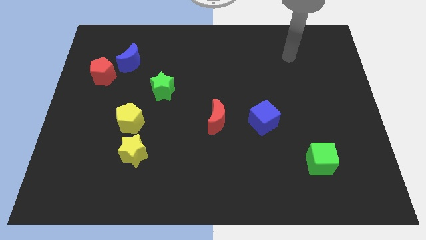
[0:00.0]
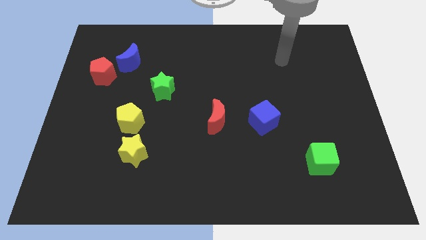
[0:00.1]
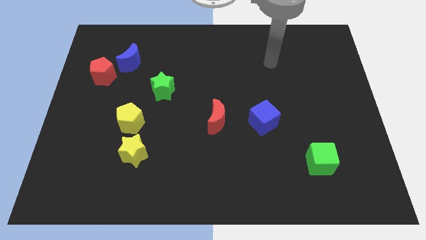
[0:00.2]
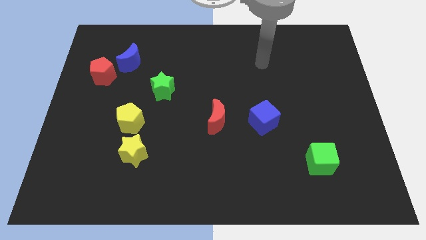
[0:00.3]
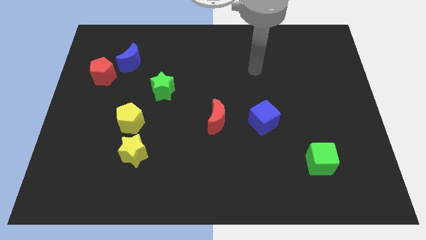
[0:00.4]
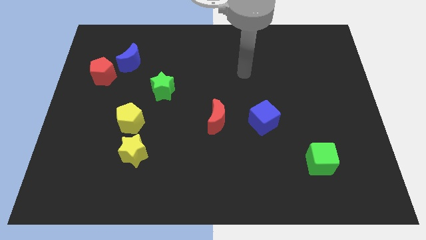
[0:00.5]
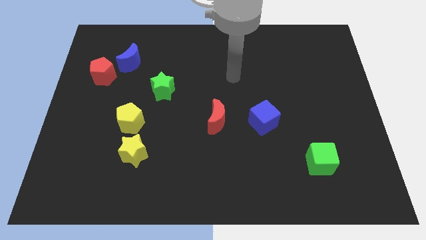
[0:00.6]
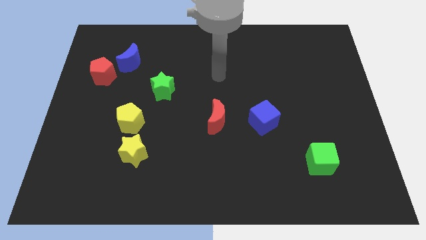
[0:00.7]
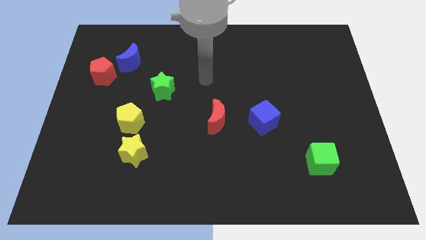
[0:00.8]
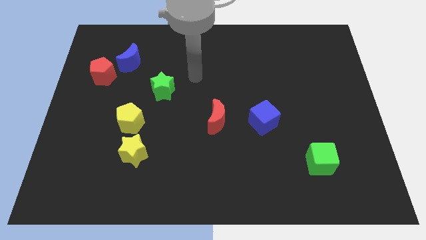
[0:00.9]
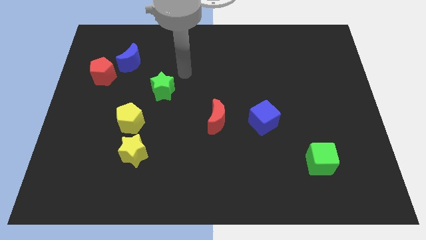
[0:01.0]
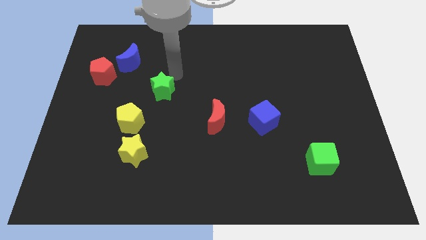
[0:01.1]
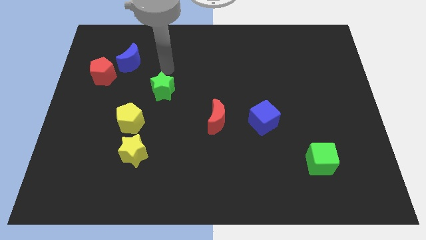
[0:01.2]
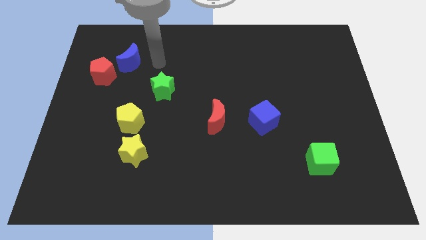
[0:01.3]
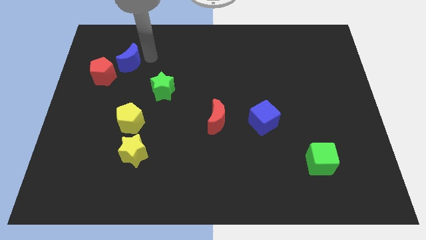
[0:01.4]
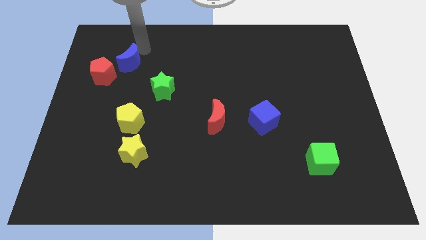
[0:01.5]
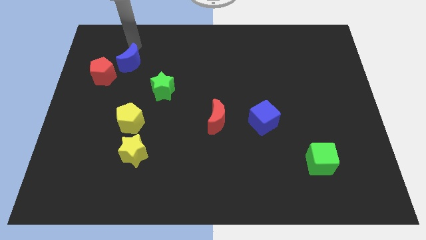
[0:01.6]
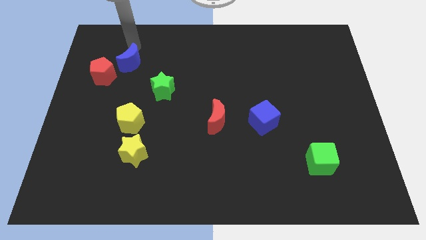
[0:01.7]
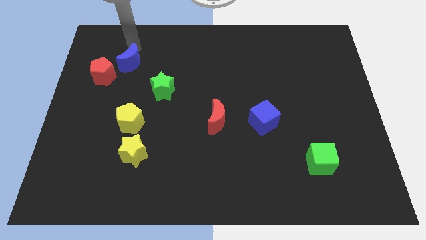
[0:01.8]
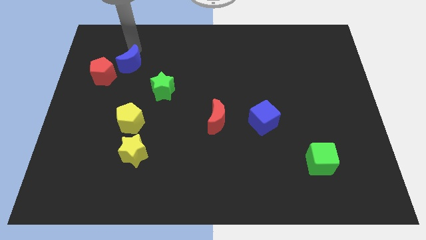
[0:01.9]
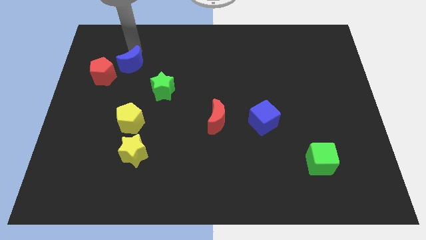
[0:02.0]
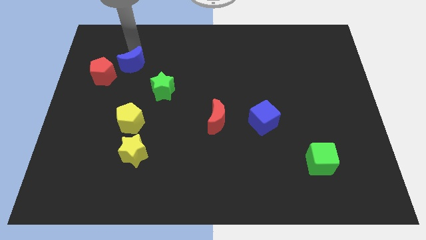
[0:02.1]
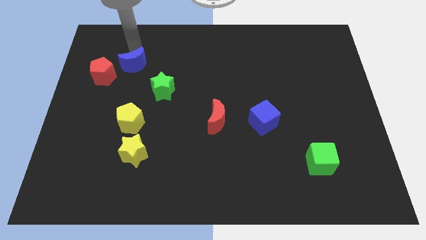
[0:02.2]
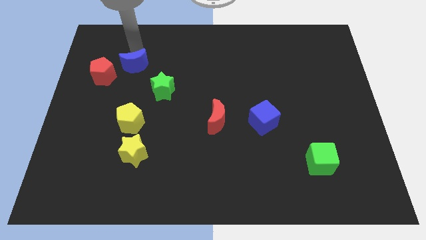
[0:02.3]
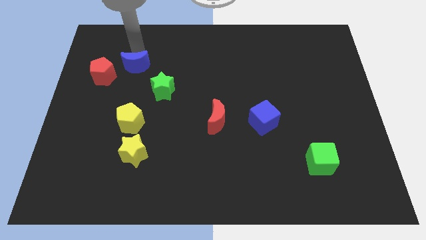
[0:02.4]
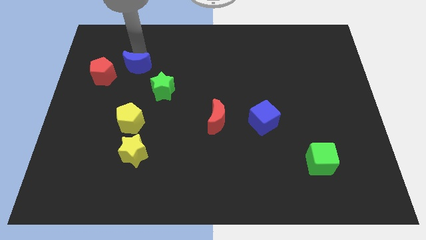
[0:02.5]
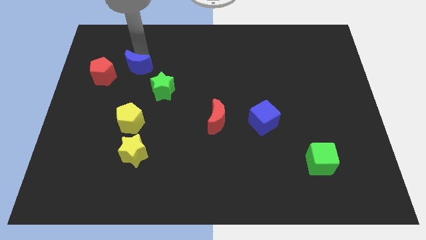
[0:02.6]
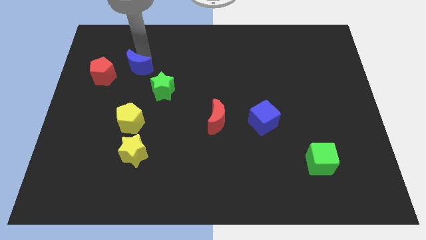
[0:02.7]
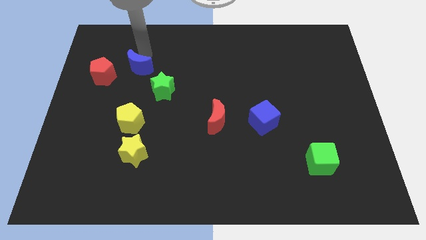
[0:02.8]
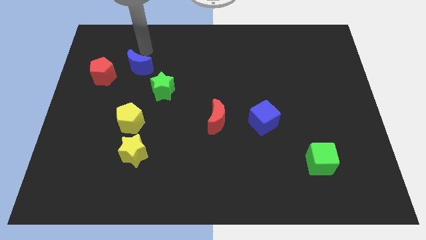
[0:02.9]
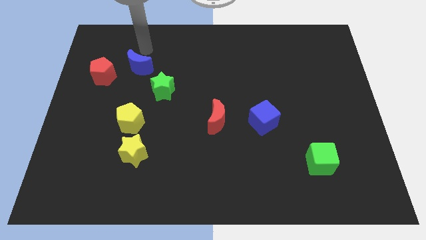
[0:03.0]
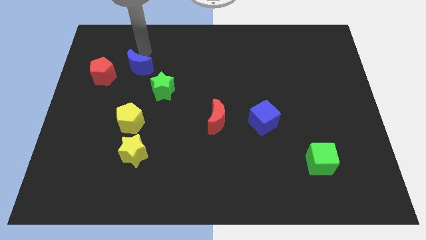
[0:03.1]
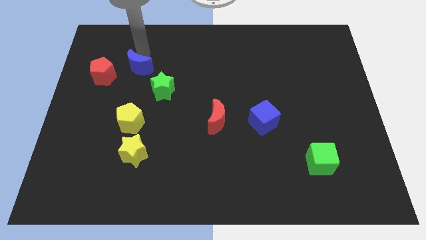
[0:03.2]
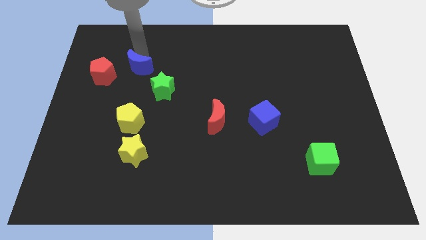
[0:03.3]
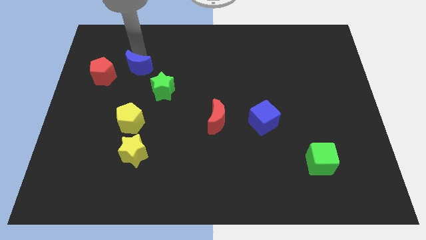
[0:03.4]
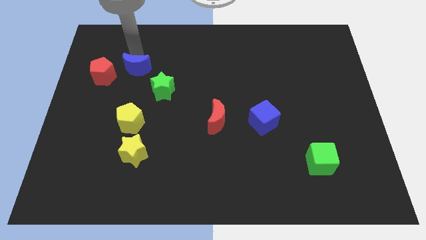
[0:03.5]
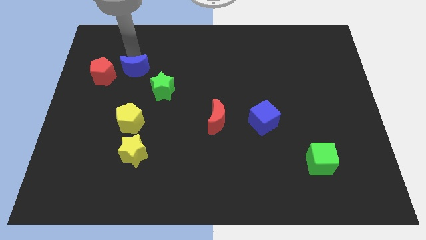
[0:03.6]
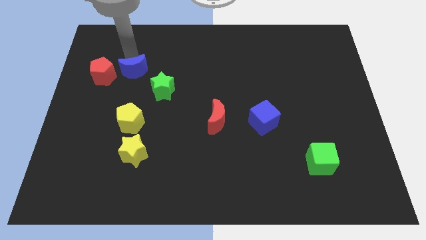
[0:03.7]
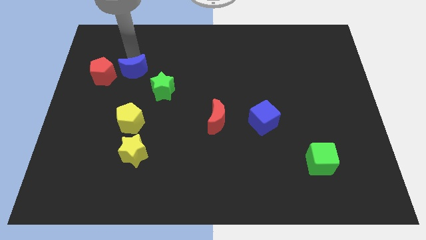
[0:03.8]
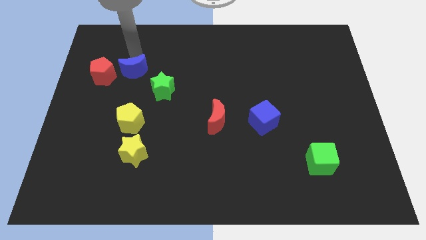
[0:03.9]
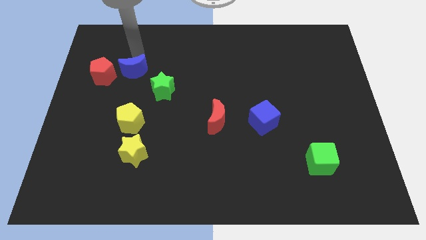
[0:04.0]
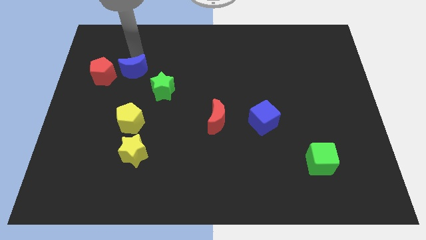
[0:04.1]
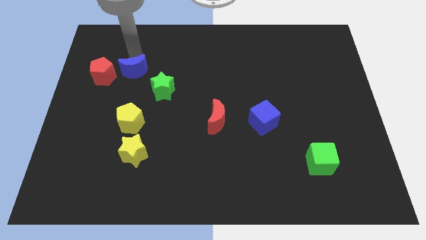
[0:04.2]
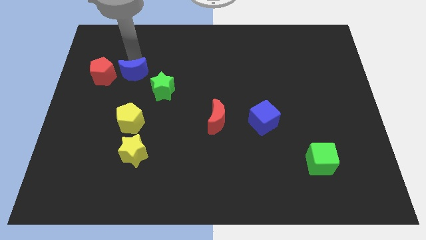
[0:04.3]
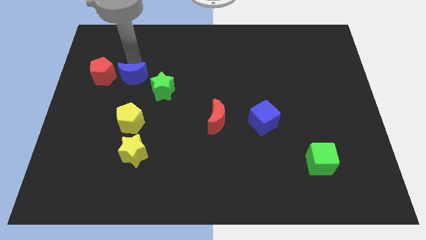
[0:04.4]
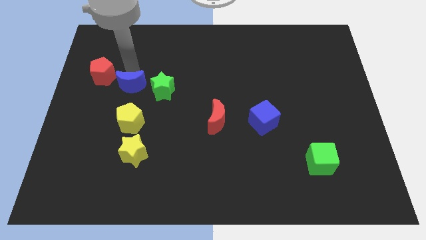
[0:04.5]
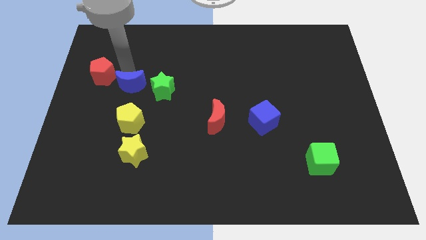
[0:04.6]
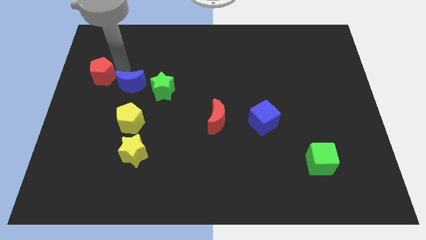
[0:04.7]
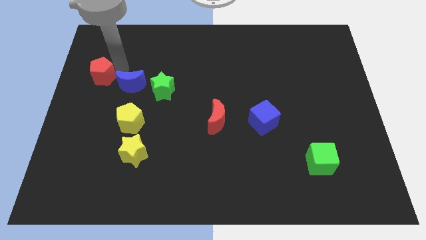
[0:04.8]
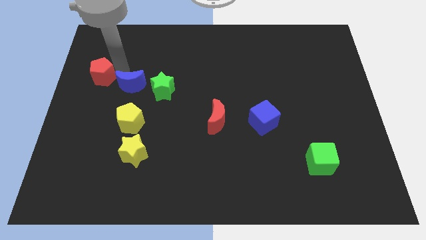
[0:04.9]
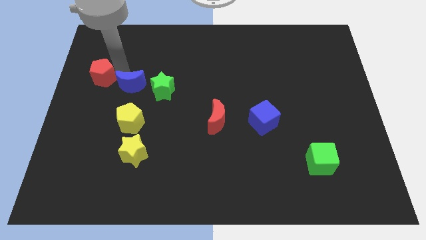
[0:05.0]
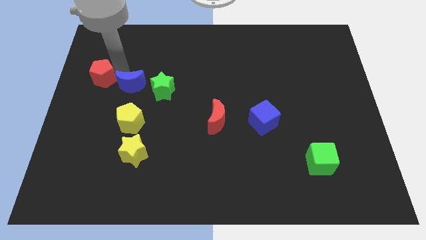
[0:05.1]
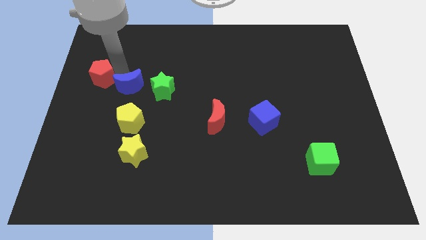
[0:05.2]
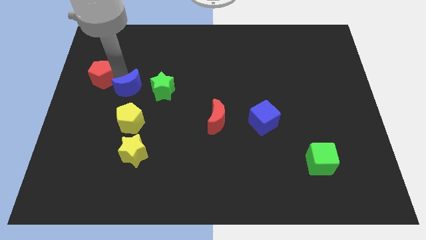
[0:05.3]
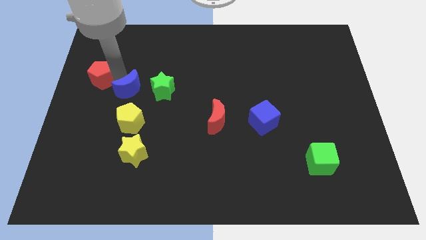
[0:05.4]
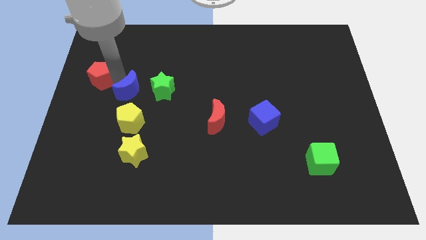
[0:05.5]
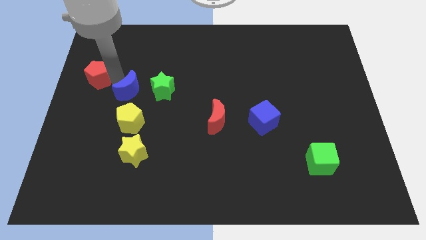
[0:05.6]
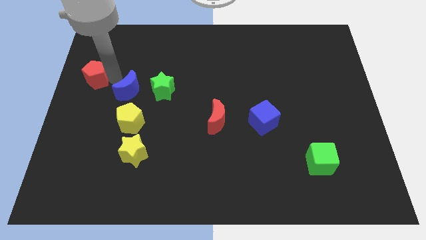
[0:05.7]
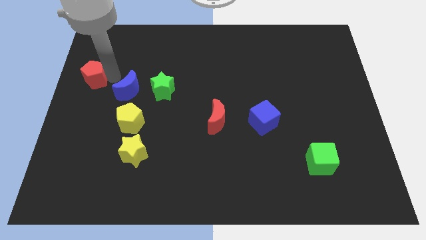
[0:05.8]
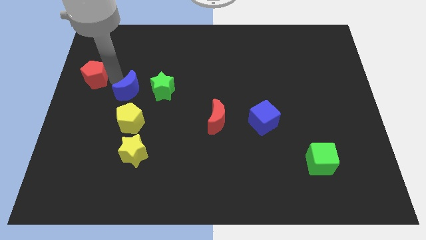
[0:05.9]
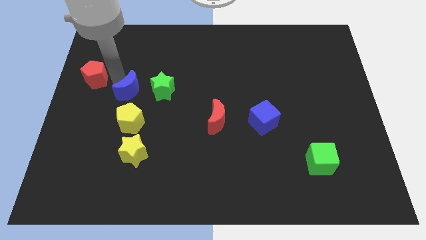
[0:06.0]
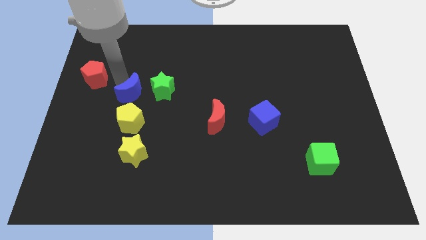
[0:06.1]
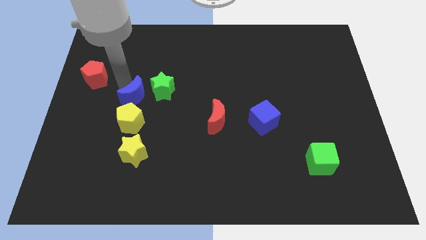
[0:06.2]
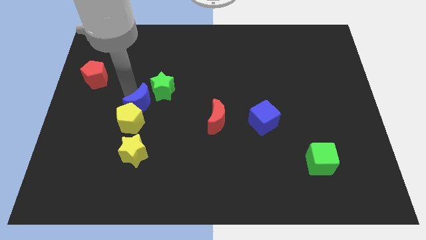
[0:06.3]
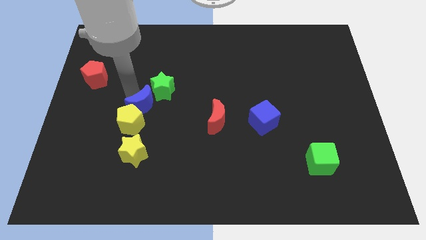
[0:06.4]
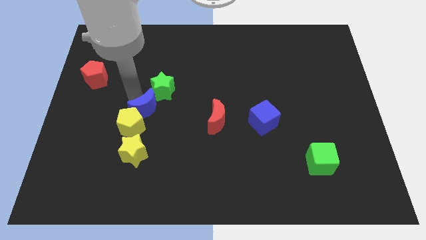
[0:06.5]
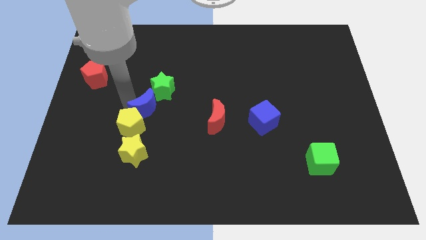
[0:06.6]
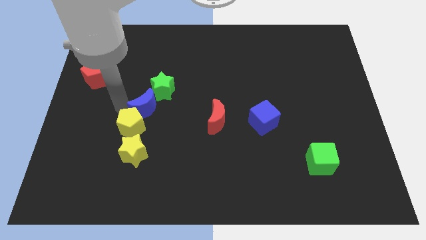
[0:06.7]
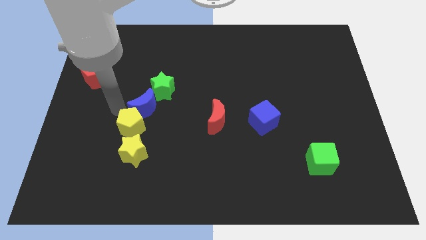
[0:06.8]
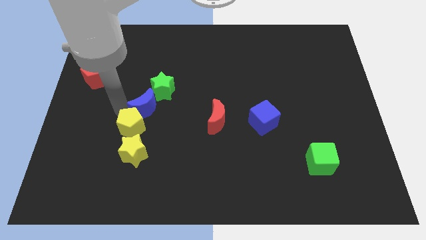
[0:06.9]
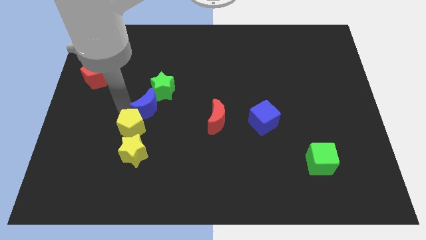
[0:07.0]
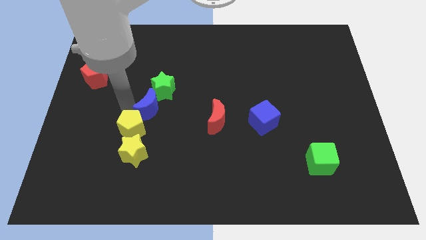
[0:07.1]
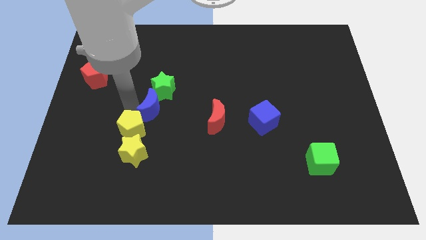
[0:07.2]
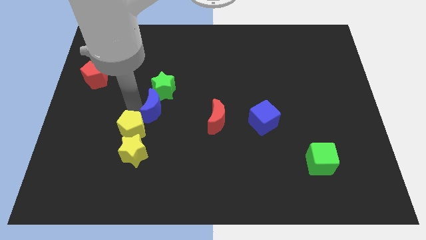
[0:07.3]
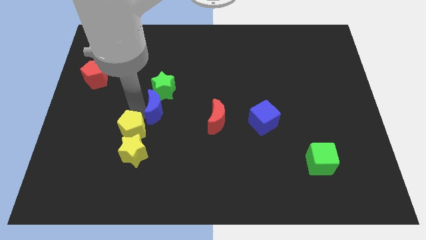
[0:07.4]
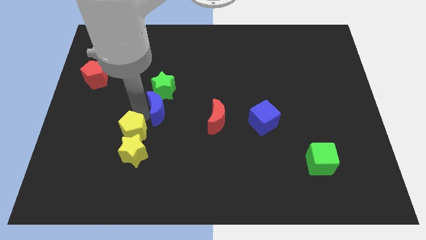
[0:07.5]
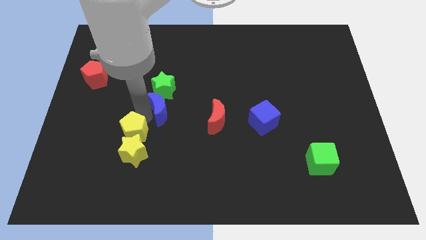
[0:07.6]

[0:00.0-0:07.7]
push the blue moon to the bottom right side of the green star
